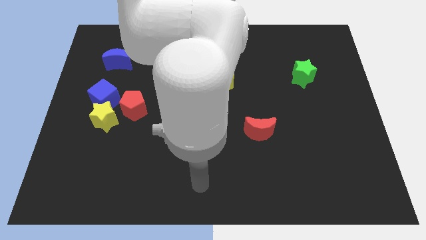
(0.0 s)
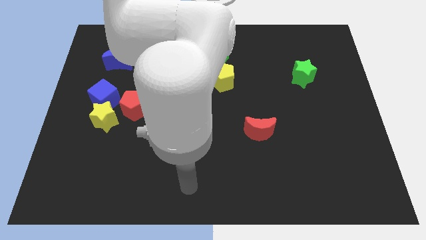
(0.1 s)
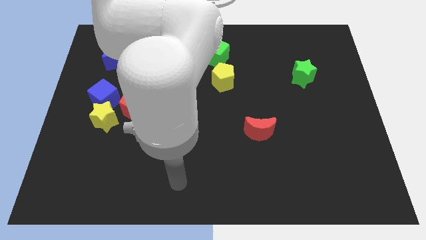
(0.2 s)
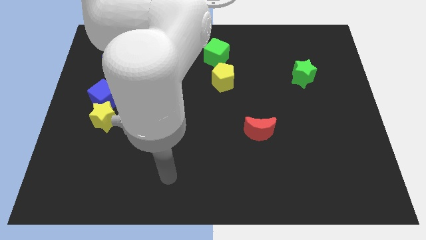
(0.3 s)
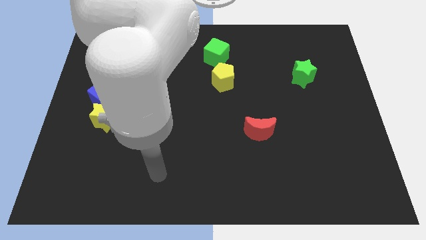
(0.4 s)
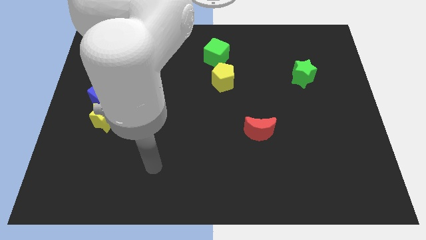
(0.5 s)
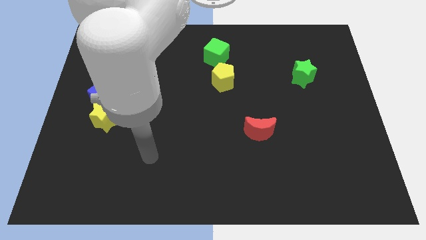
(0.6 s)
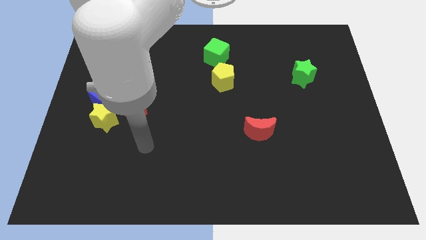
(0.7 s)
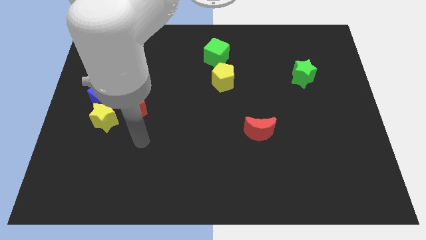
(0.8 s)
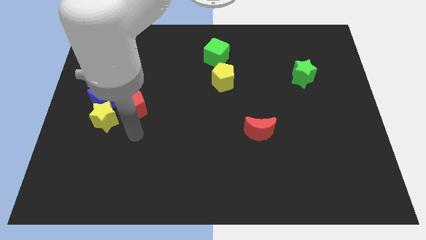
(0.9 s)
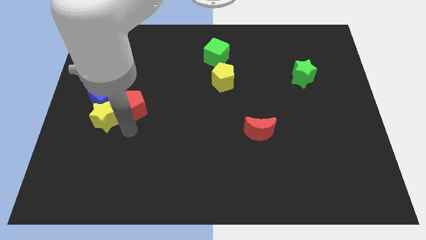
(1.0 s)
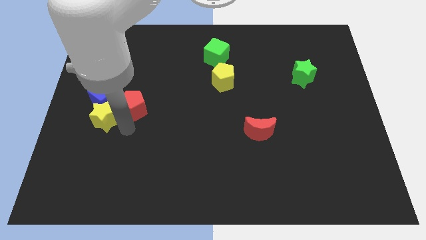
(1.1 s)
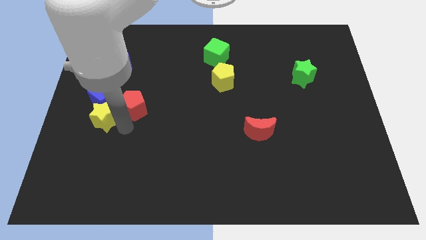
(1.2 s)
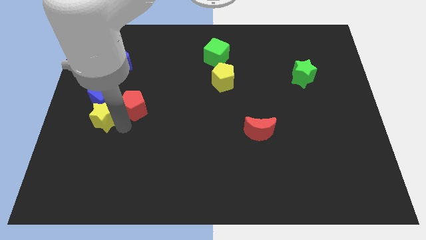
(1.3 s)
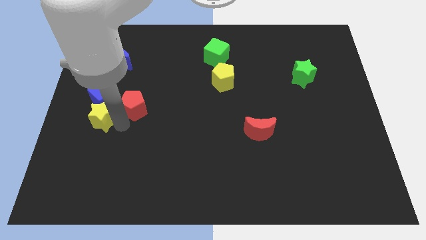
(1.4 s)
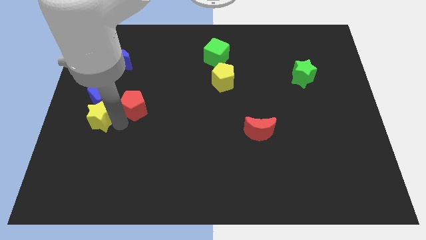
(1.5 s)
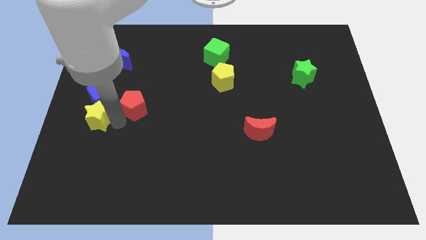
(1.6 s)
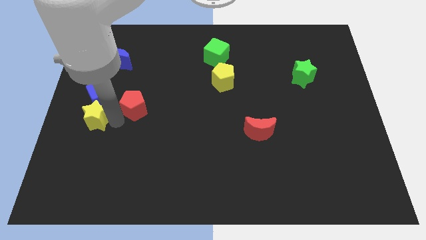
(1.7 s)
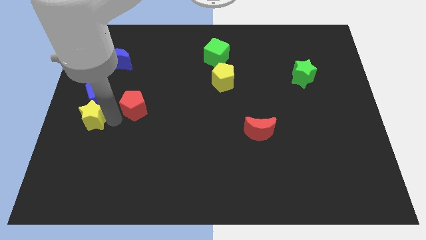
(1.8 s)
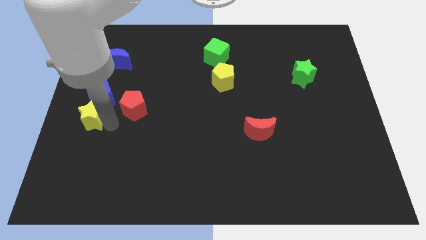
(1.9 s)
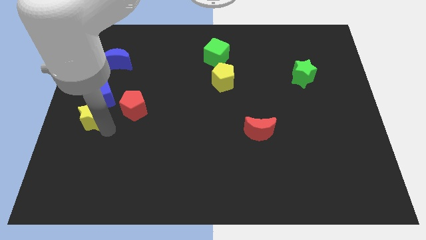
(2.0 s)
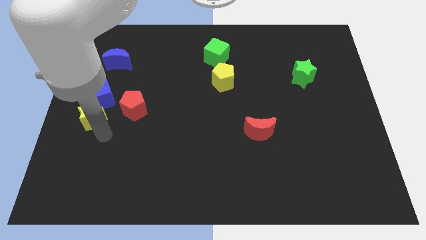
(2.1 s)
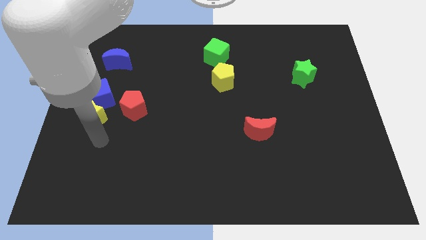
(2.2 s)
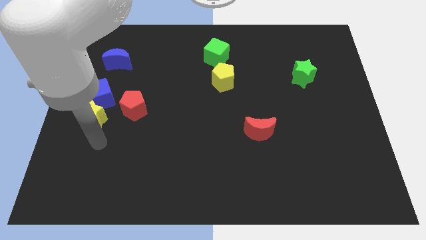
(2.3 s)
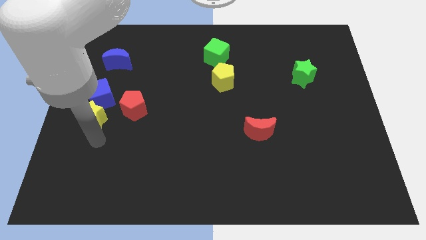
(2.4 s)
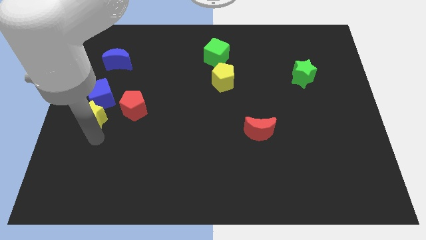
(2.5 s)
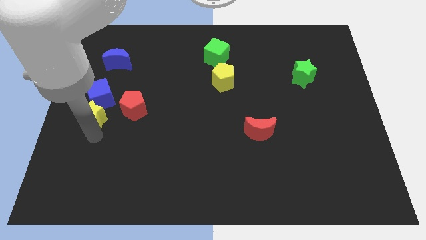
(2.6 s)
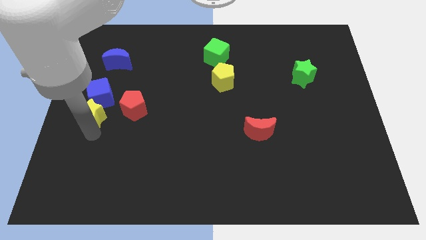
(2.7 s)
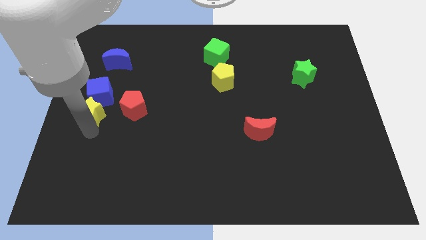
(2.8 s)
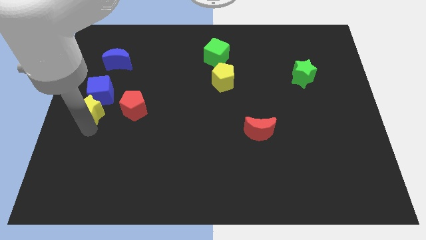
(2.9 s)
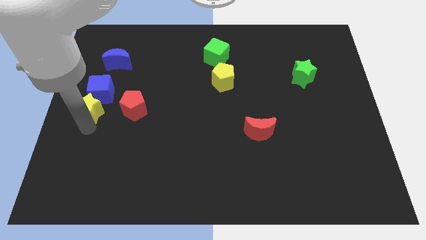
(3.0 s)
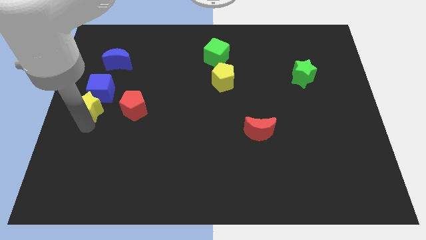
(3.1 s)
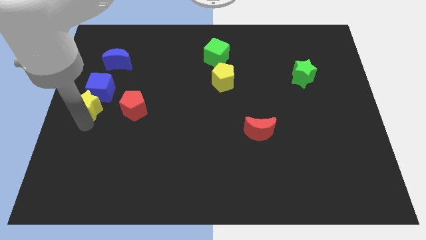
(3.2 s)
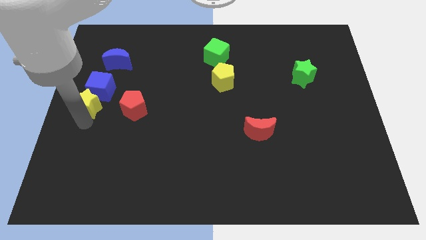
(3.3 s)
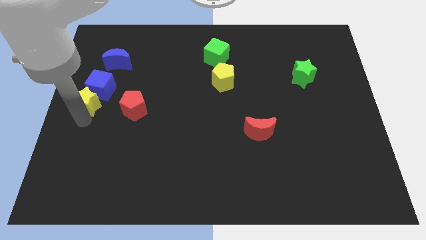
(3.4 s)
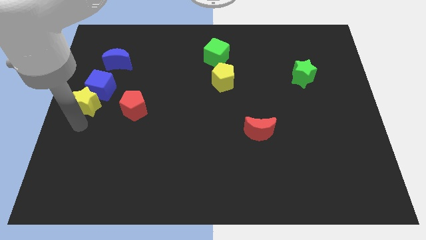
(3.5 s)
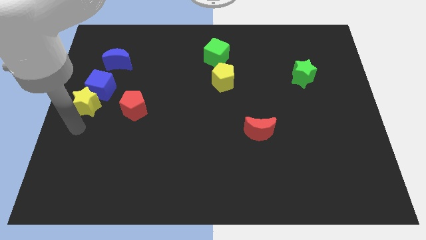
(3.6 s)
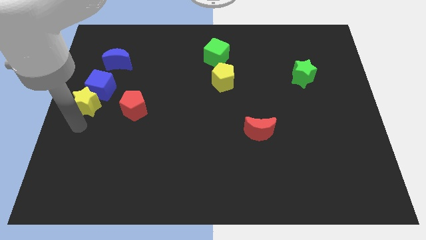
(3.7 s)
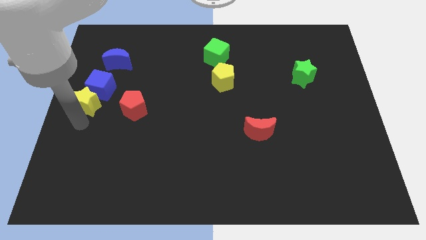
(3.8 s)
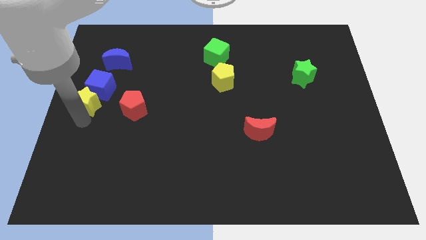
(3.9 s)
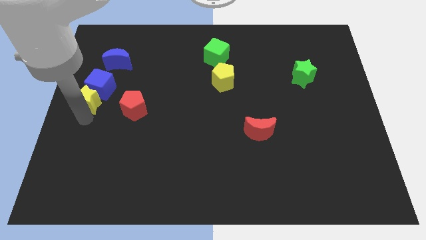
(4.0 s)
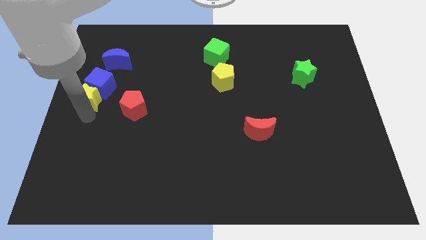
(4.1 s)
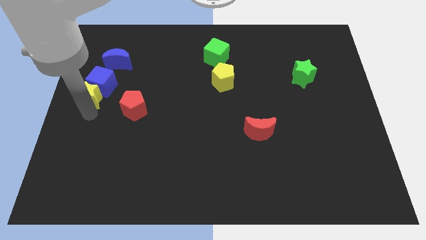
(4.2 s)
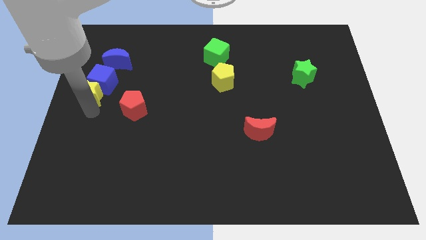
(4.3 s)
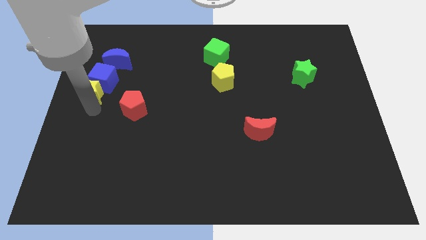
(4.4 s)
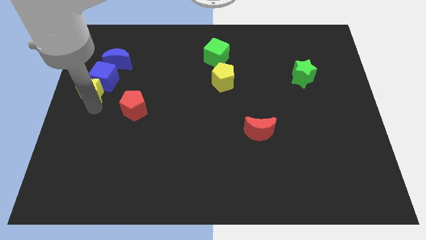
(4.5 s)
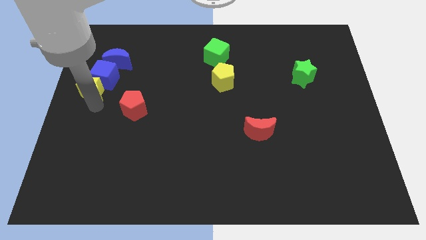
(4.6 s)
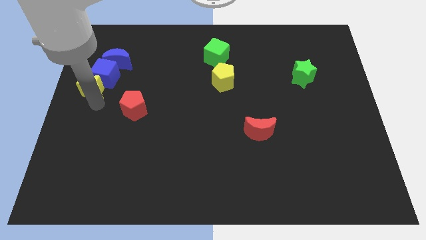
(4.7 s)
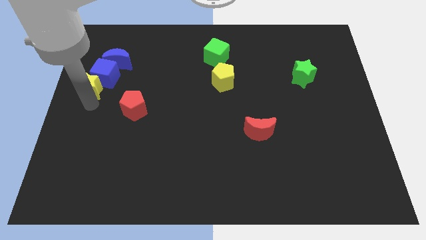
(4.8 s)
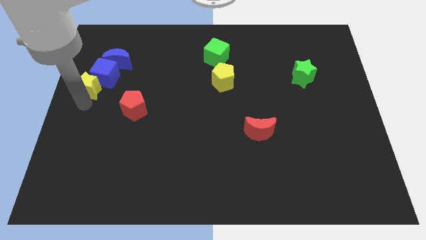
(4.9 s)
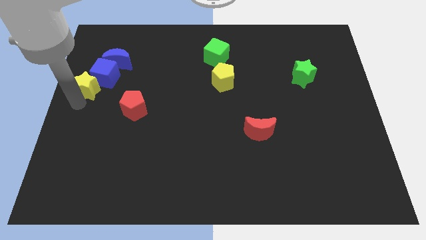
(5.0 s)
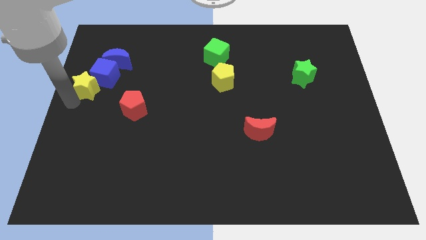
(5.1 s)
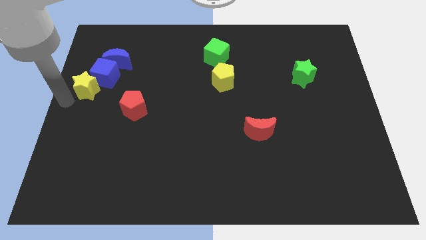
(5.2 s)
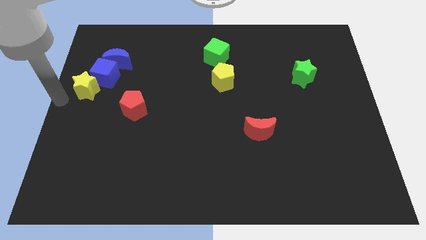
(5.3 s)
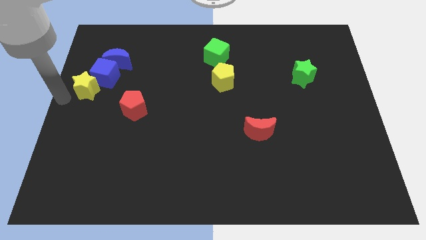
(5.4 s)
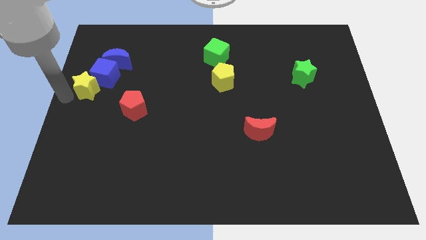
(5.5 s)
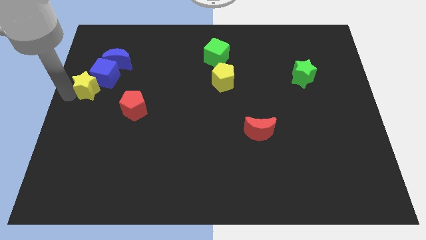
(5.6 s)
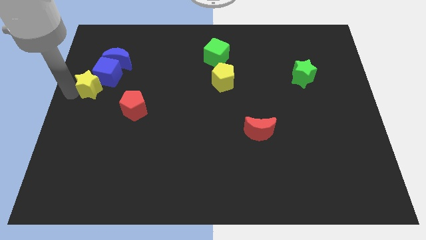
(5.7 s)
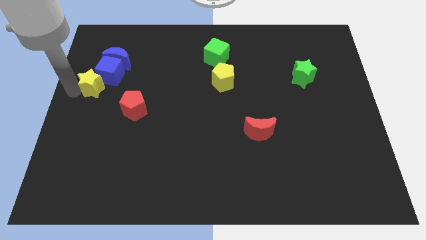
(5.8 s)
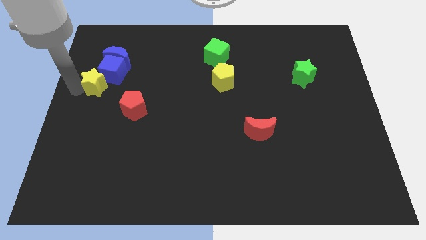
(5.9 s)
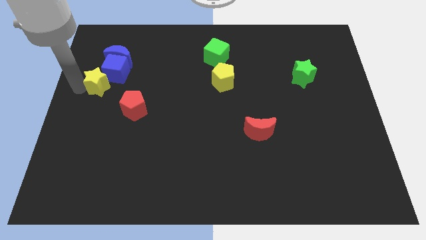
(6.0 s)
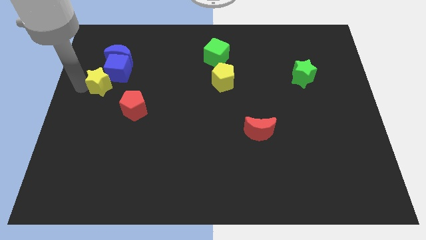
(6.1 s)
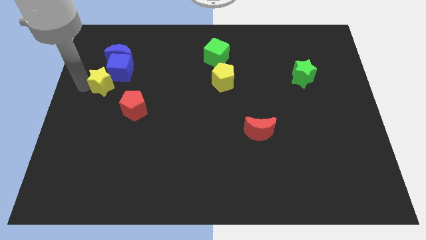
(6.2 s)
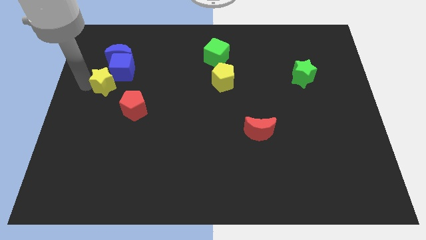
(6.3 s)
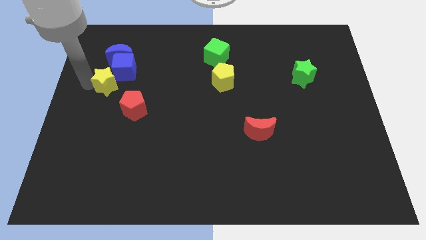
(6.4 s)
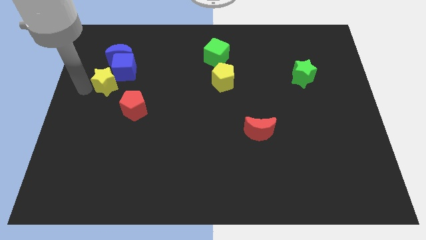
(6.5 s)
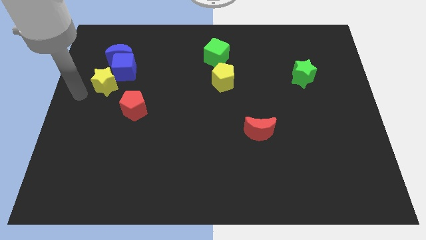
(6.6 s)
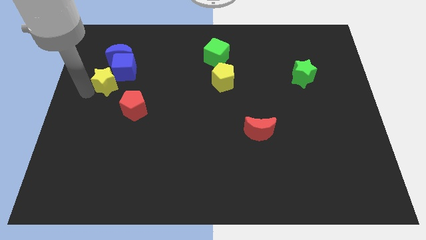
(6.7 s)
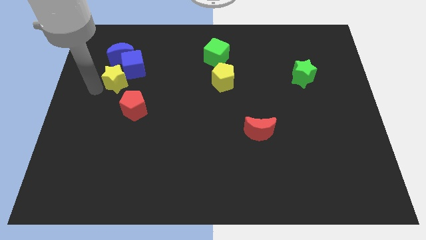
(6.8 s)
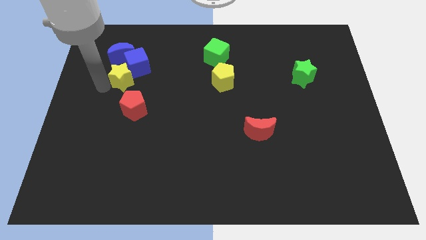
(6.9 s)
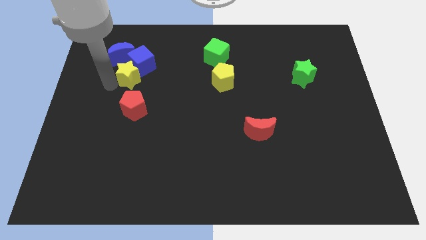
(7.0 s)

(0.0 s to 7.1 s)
move the yellow star to the bottom right side of the blue moon
